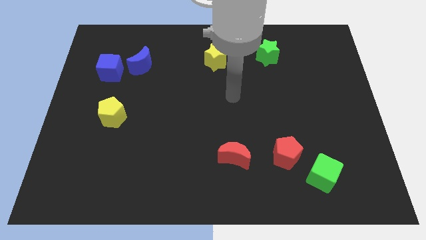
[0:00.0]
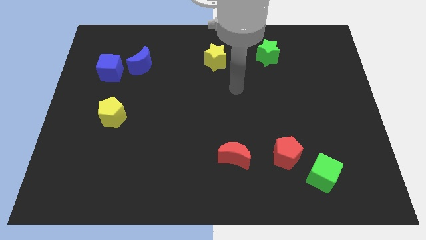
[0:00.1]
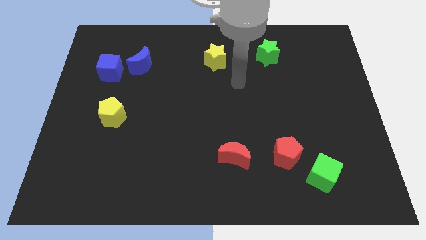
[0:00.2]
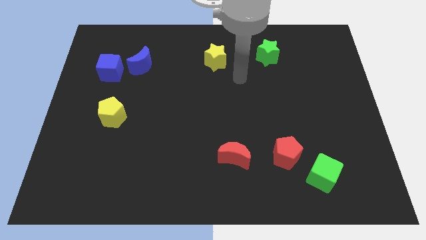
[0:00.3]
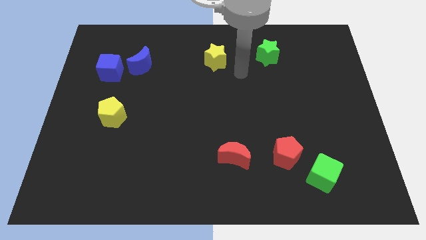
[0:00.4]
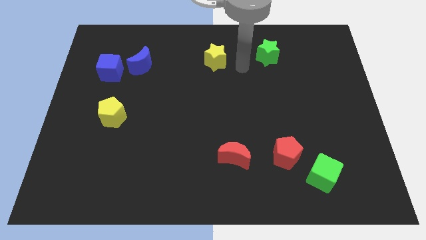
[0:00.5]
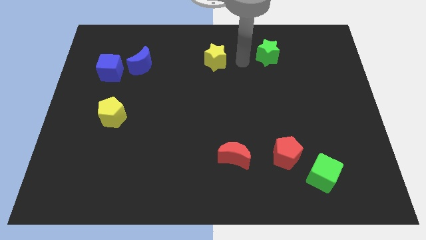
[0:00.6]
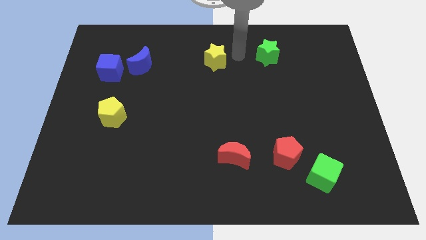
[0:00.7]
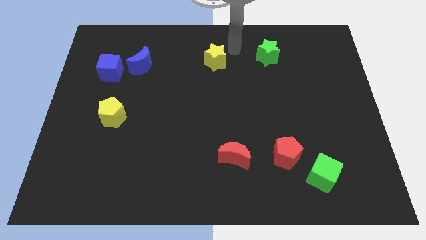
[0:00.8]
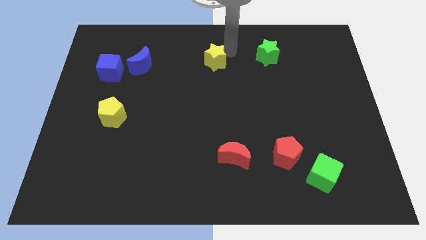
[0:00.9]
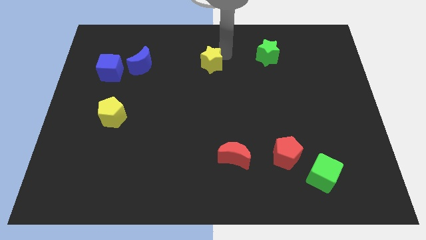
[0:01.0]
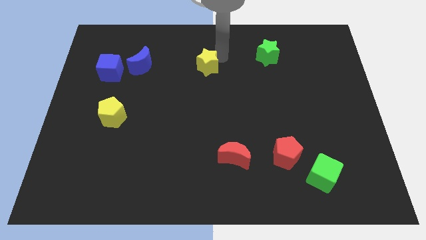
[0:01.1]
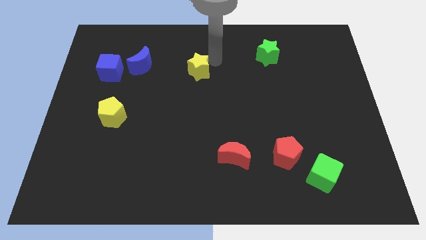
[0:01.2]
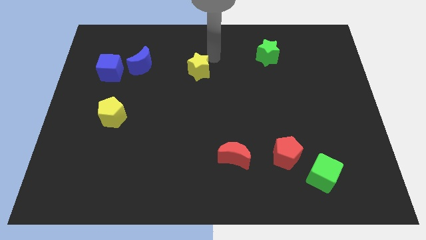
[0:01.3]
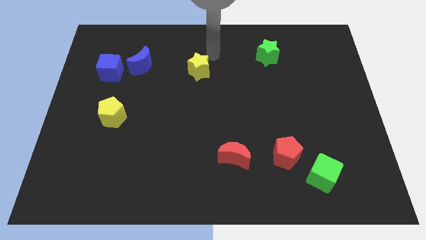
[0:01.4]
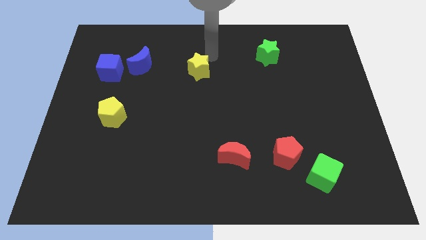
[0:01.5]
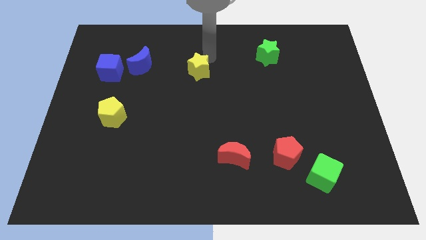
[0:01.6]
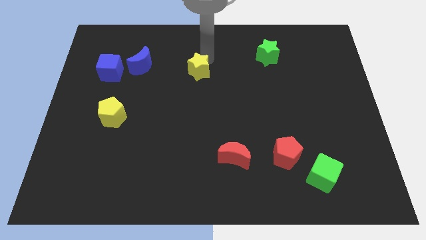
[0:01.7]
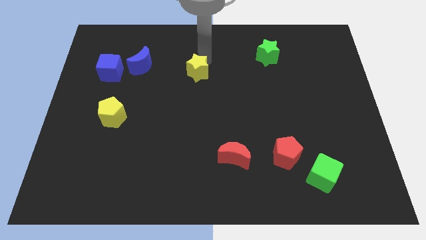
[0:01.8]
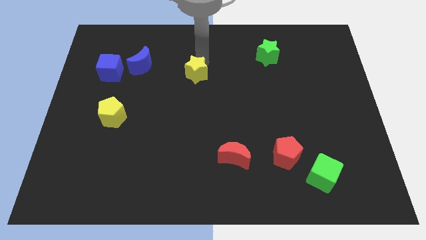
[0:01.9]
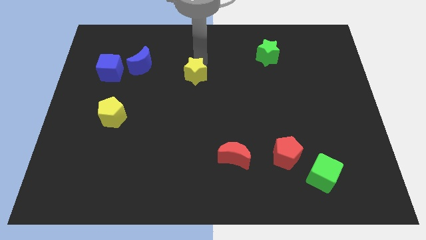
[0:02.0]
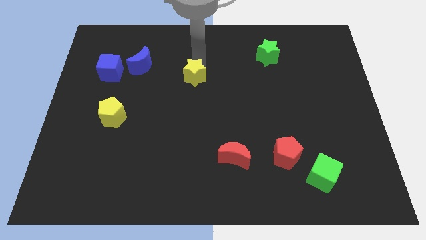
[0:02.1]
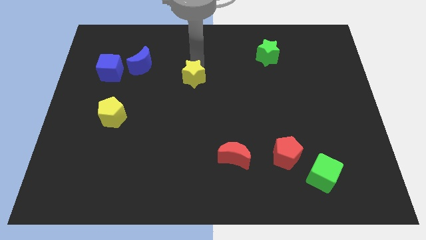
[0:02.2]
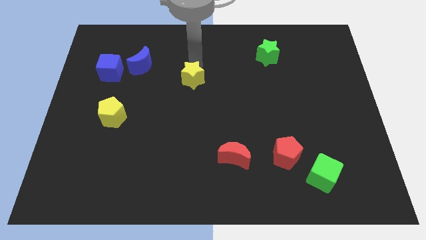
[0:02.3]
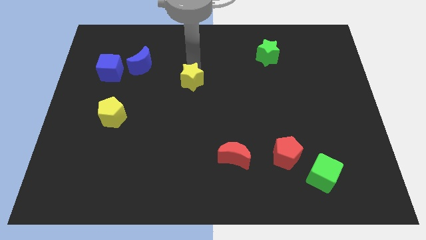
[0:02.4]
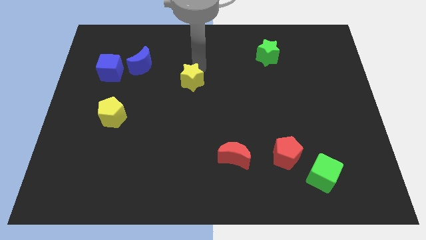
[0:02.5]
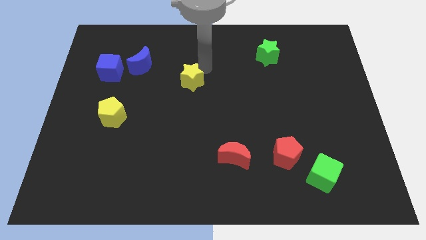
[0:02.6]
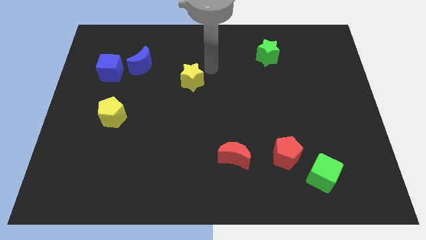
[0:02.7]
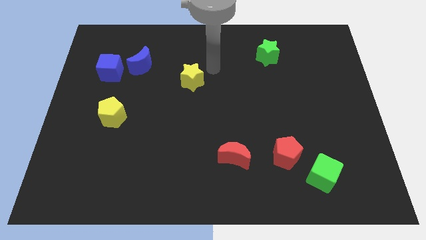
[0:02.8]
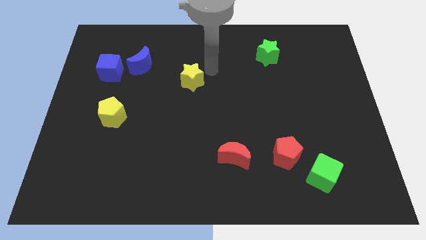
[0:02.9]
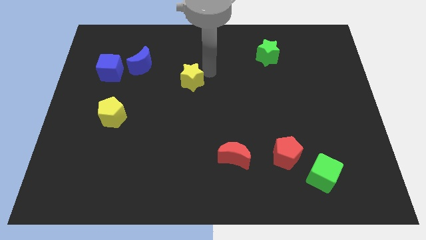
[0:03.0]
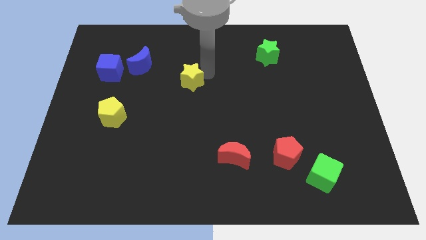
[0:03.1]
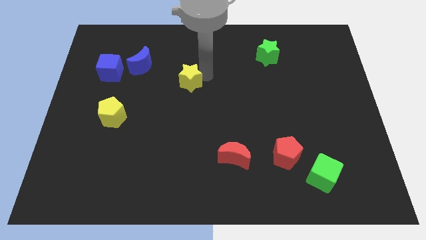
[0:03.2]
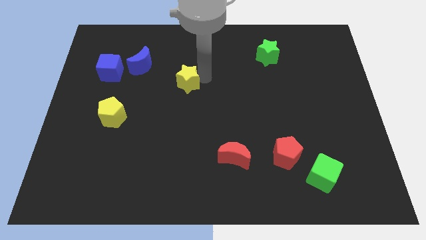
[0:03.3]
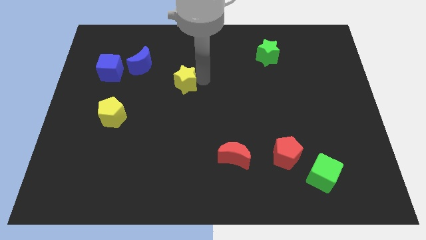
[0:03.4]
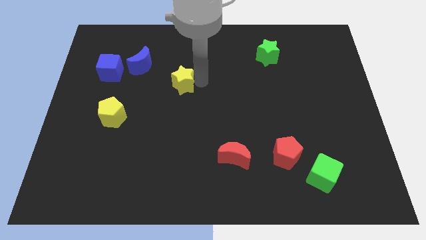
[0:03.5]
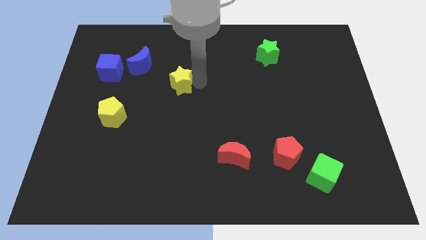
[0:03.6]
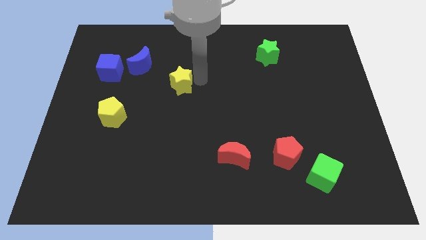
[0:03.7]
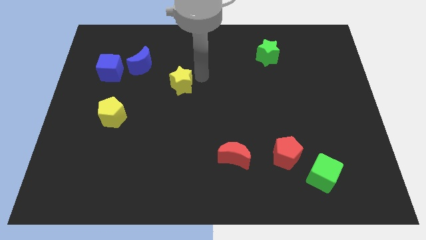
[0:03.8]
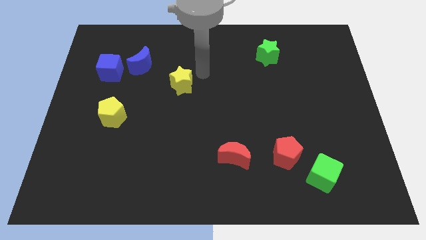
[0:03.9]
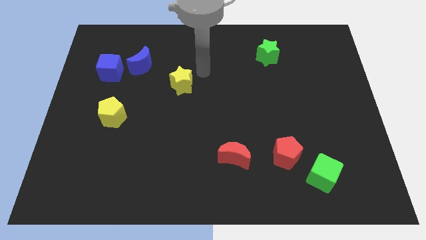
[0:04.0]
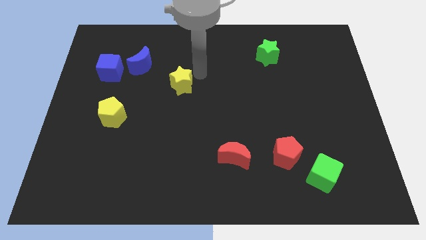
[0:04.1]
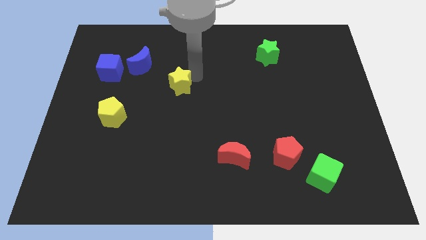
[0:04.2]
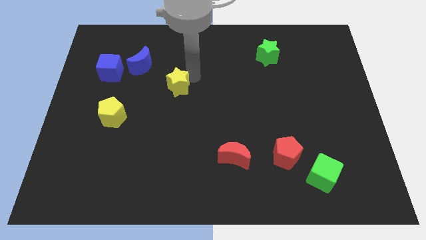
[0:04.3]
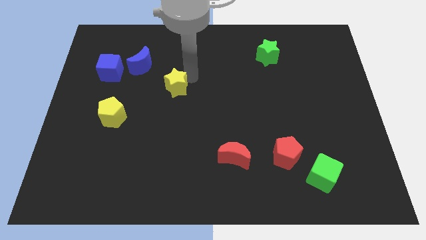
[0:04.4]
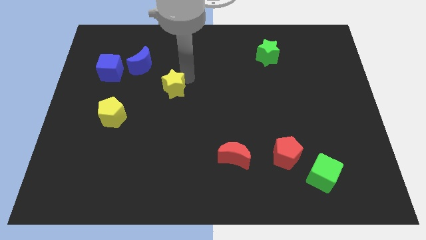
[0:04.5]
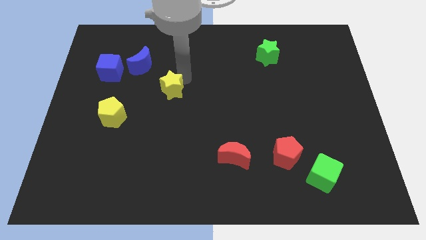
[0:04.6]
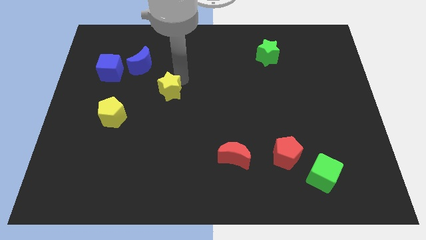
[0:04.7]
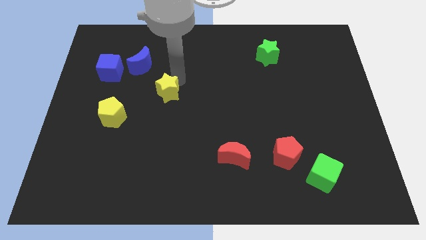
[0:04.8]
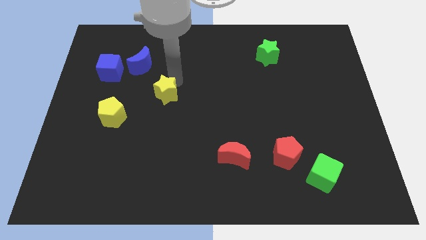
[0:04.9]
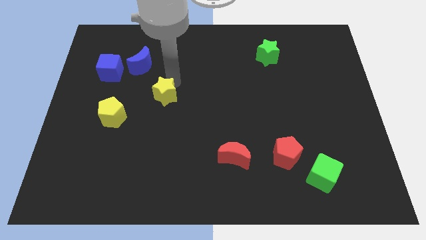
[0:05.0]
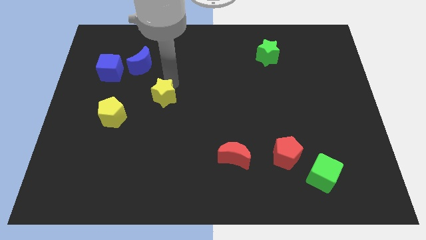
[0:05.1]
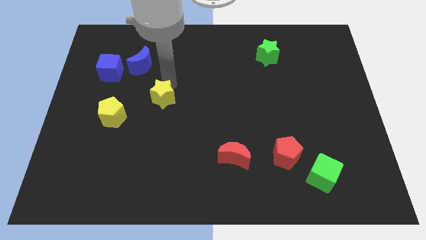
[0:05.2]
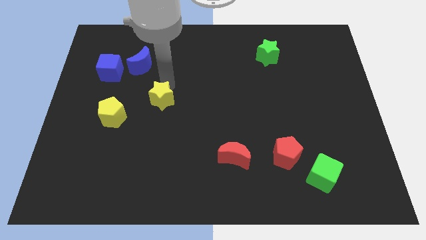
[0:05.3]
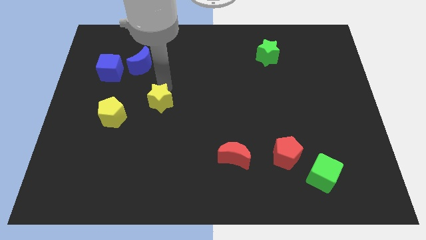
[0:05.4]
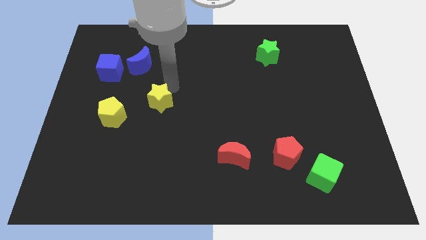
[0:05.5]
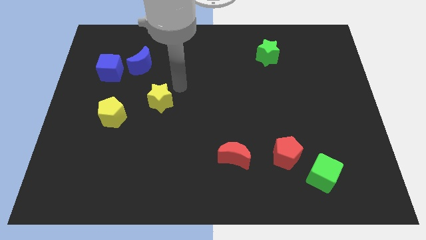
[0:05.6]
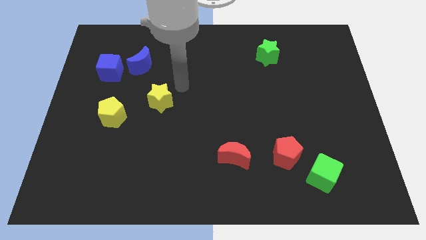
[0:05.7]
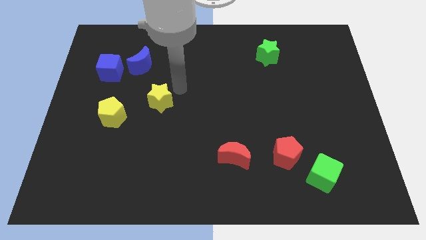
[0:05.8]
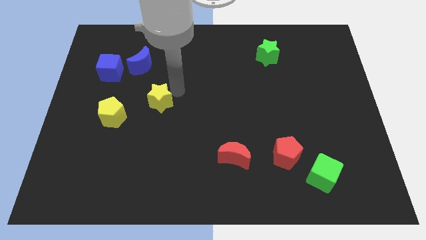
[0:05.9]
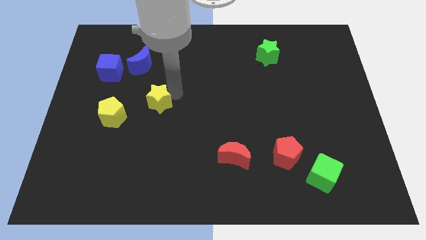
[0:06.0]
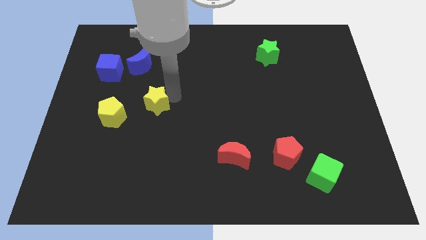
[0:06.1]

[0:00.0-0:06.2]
slide the yellow star downwards and left diagonally

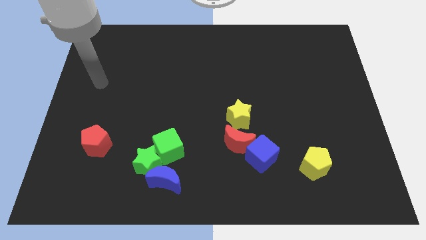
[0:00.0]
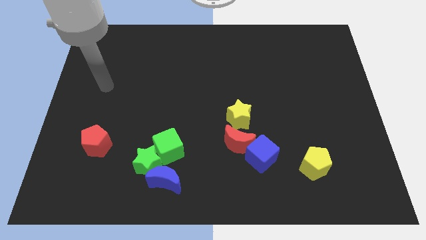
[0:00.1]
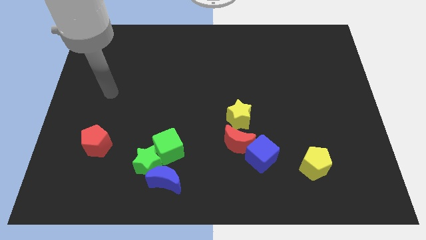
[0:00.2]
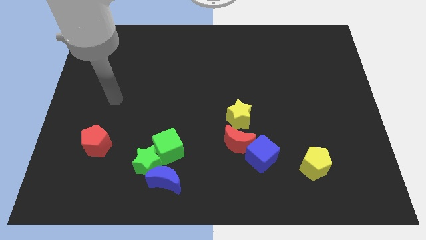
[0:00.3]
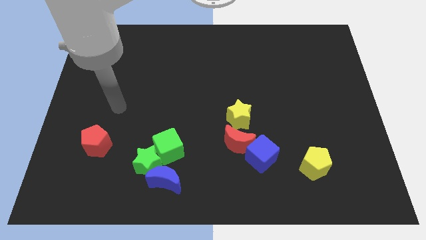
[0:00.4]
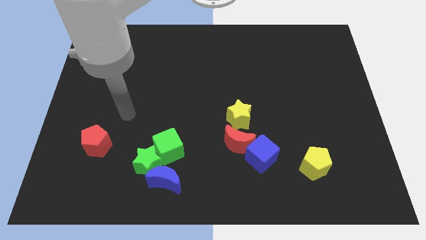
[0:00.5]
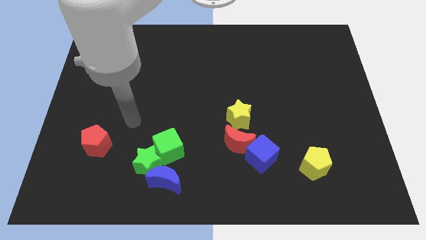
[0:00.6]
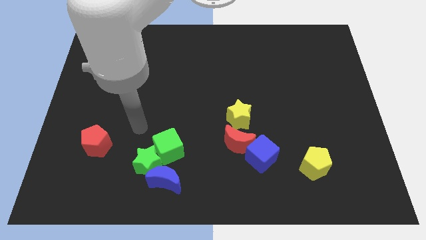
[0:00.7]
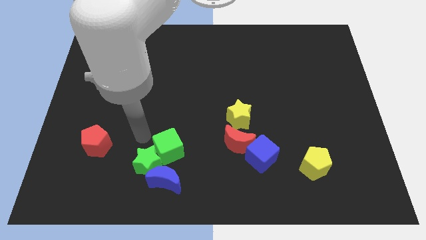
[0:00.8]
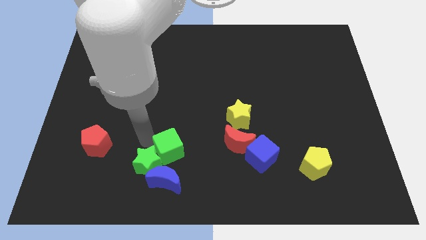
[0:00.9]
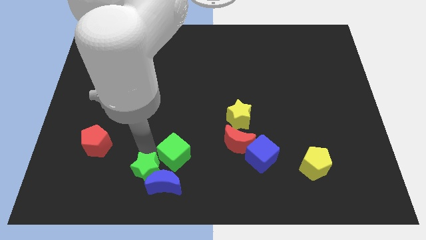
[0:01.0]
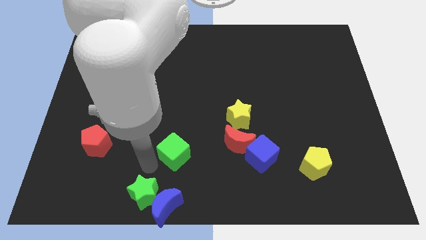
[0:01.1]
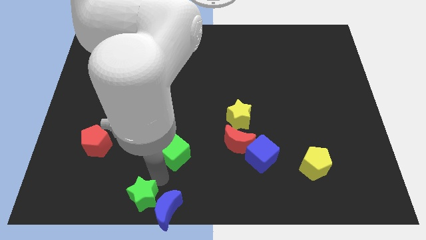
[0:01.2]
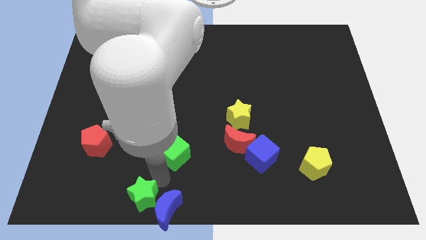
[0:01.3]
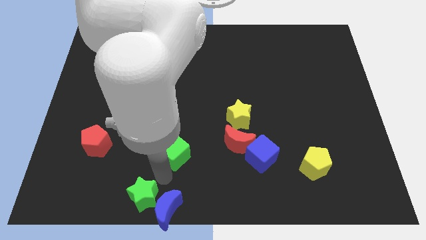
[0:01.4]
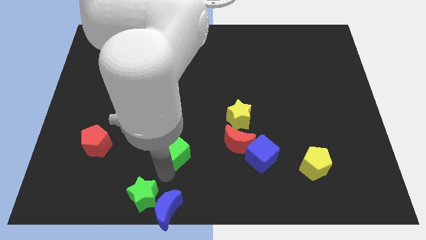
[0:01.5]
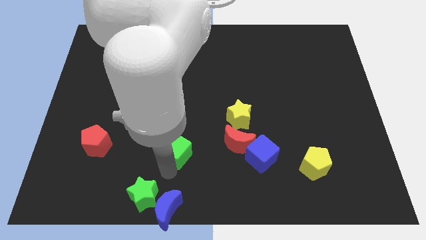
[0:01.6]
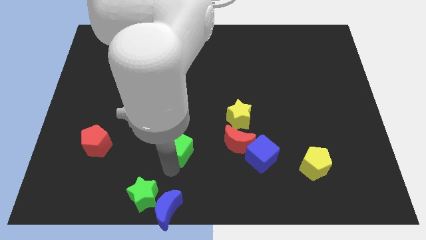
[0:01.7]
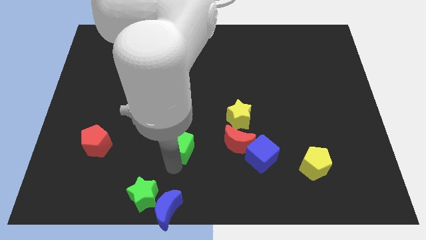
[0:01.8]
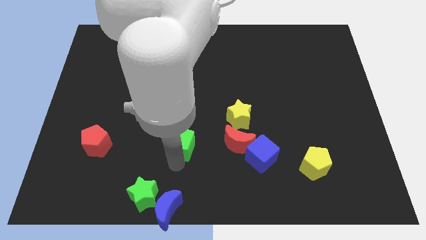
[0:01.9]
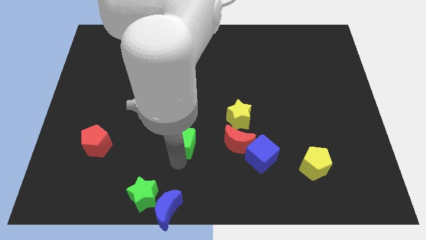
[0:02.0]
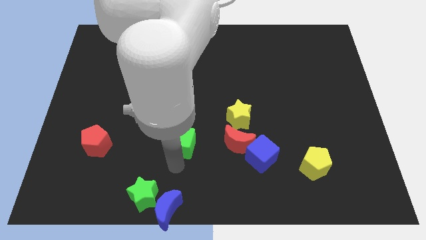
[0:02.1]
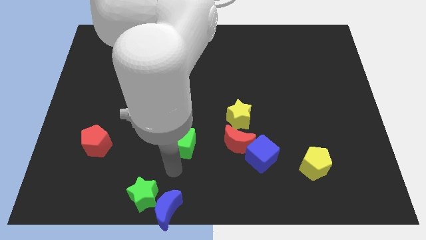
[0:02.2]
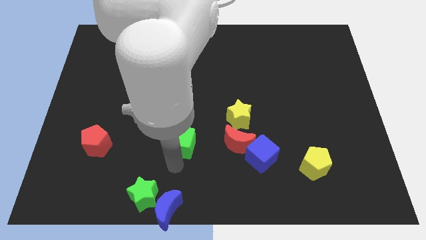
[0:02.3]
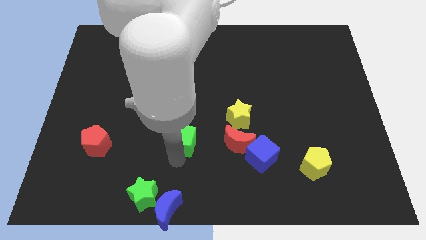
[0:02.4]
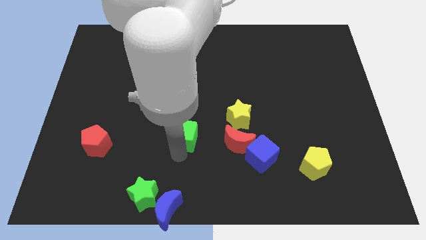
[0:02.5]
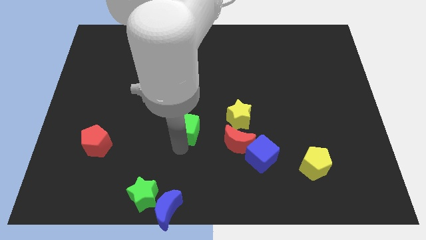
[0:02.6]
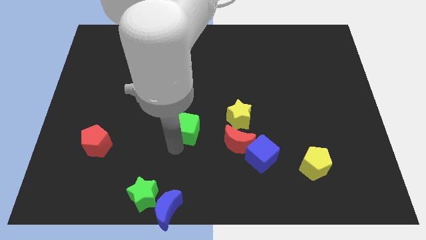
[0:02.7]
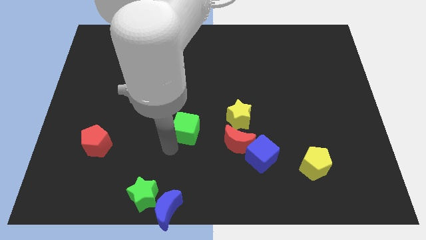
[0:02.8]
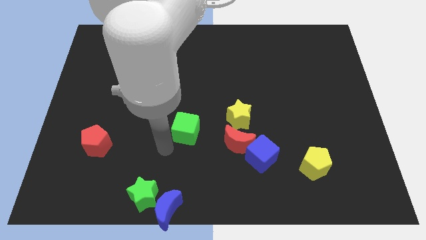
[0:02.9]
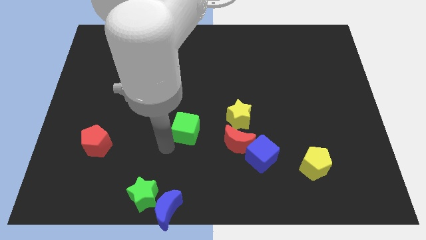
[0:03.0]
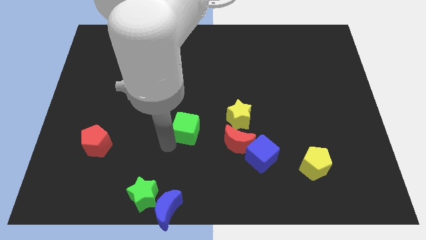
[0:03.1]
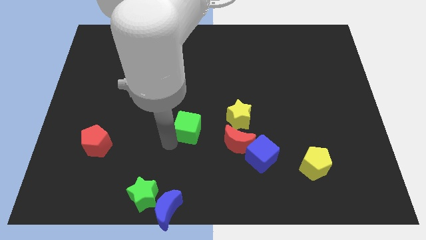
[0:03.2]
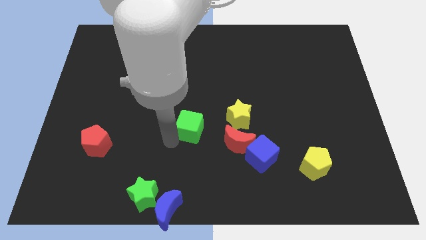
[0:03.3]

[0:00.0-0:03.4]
push the green cube somewhat up and to the right diagonally
